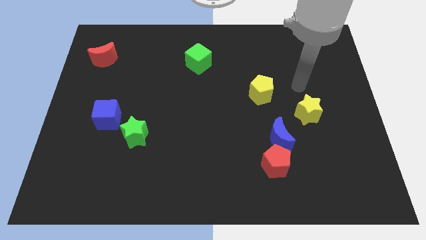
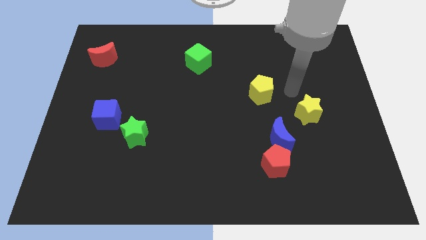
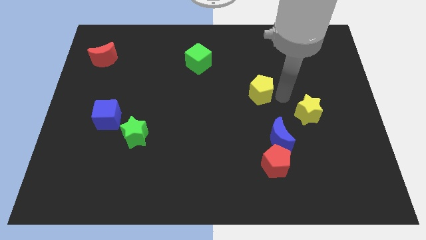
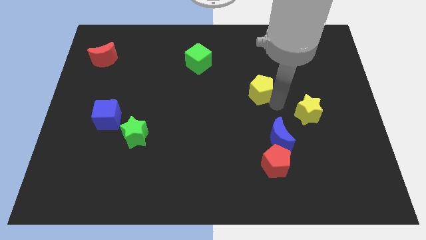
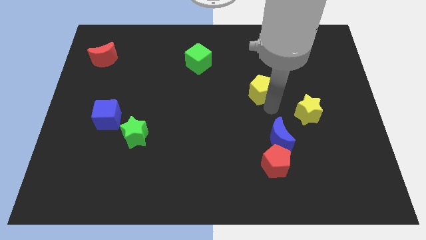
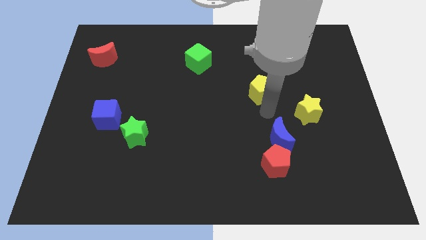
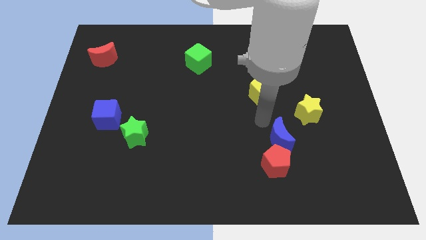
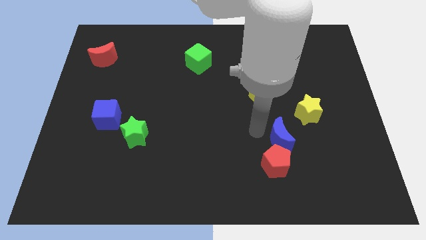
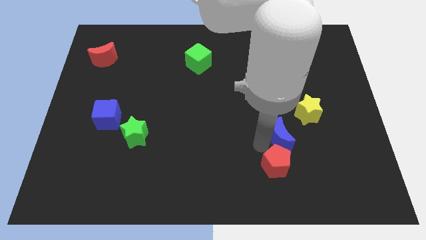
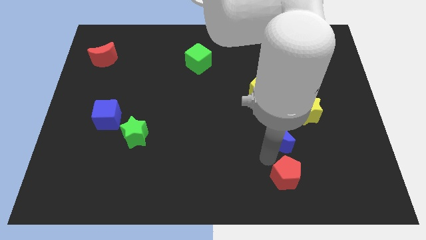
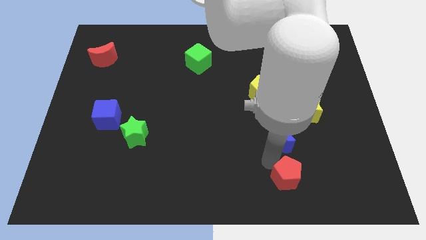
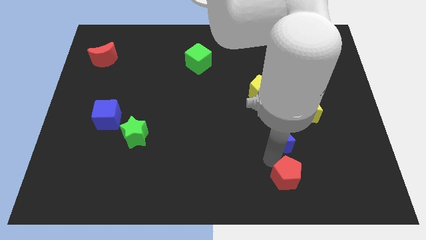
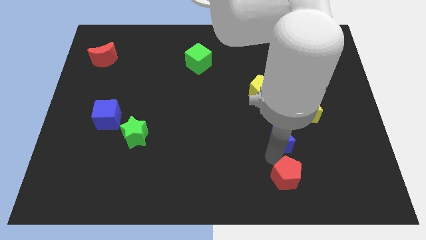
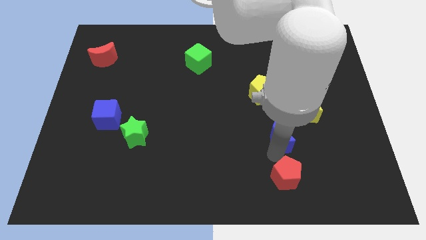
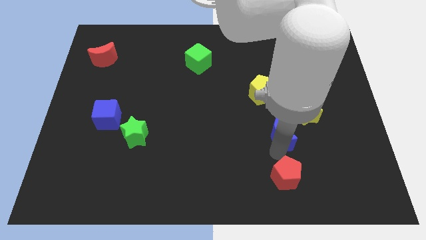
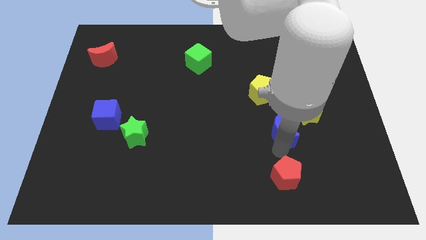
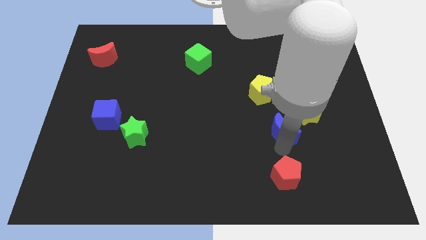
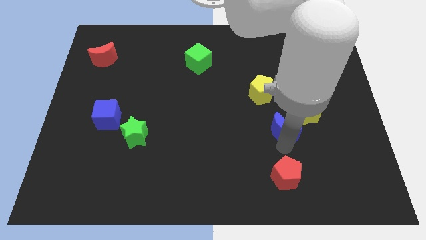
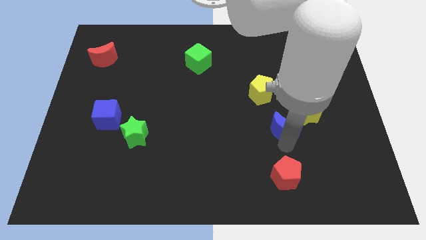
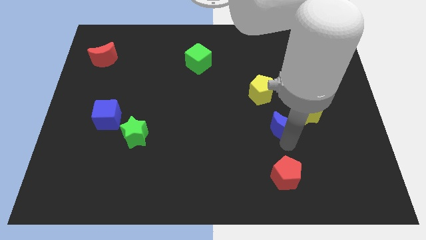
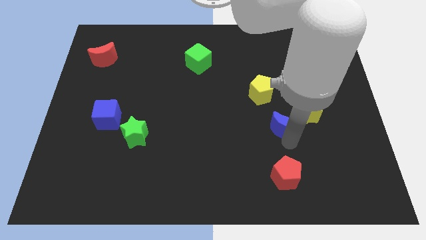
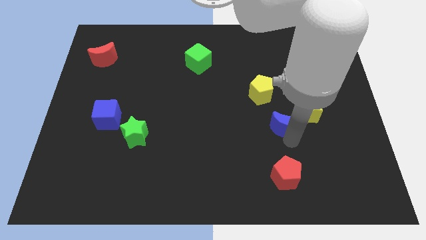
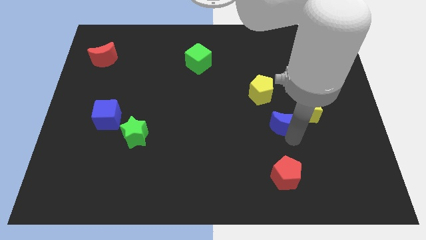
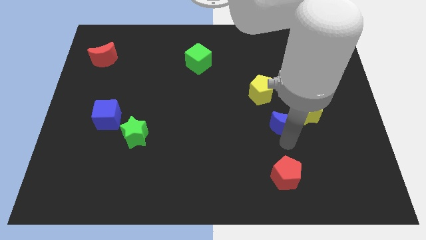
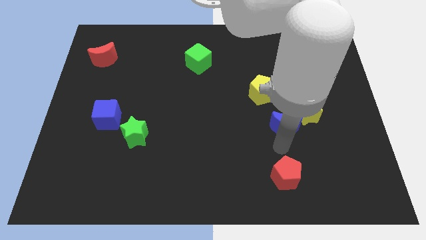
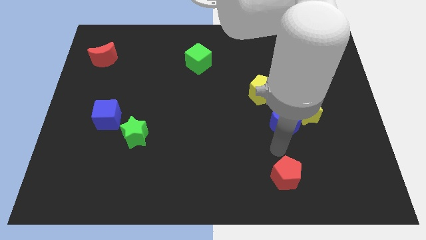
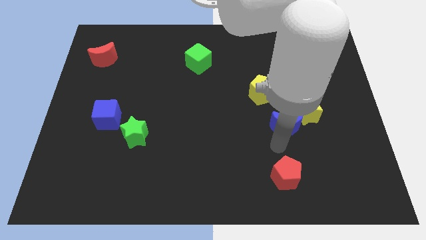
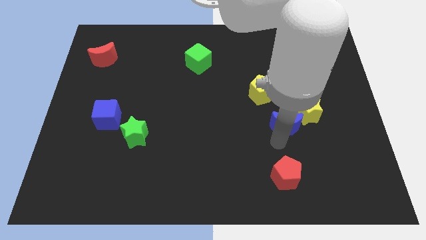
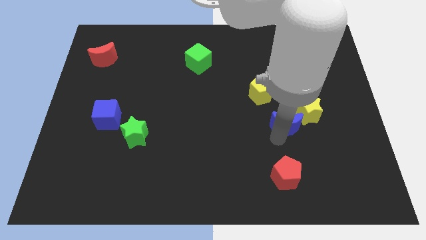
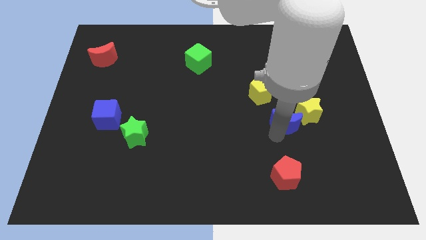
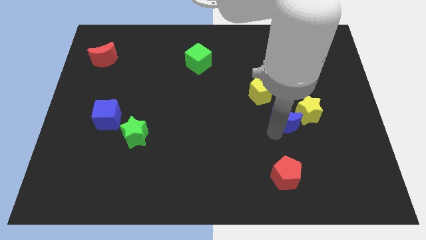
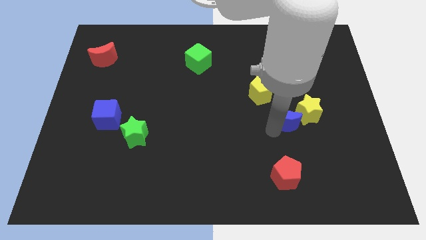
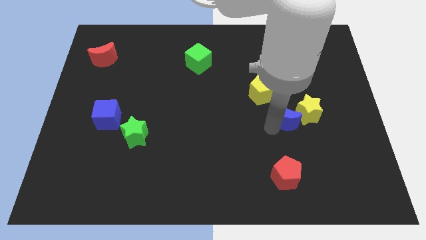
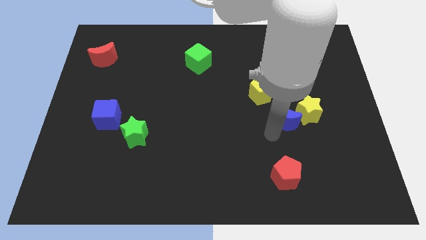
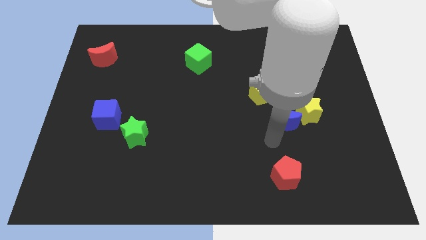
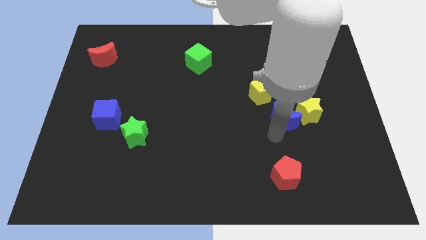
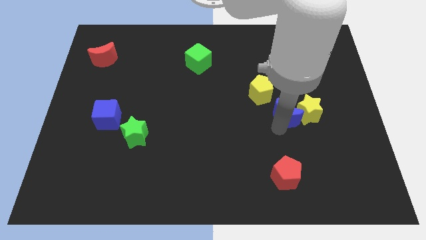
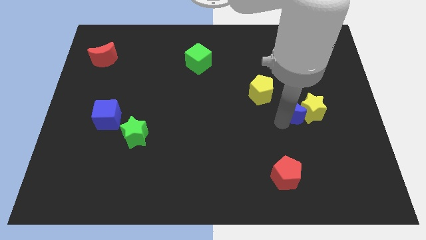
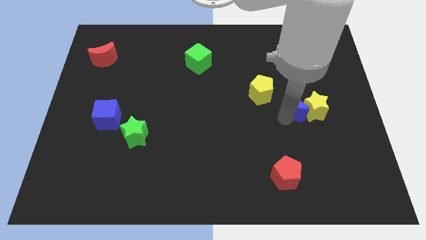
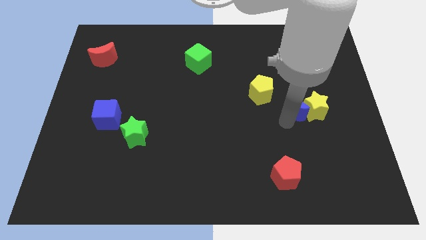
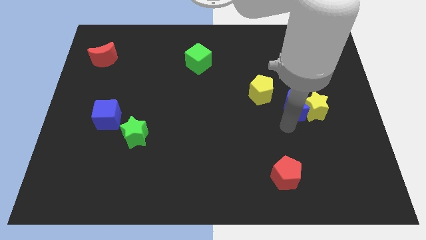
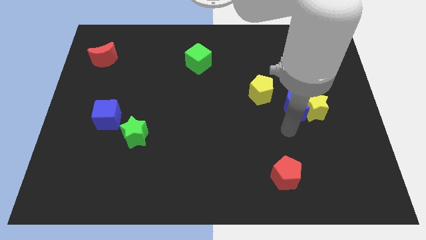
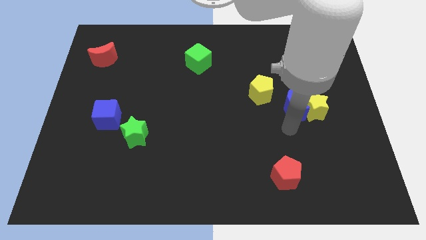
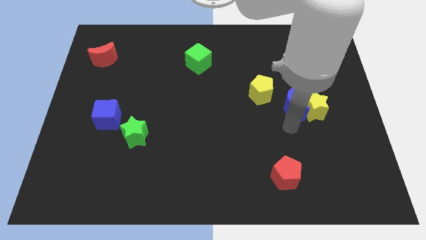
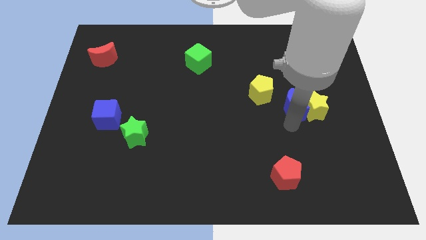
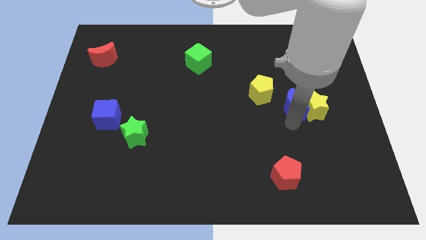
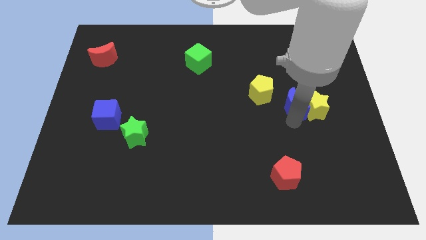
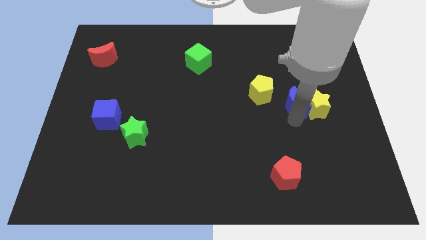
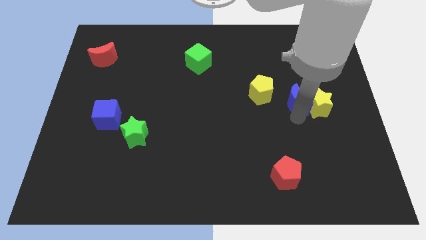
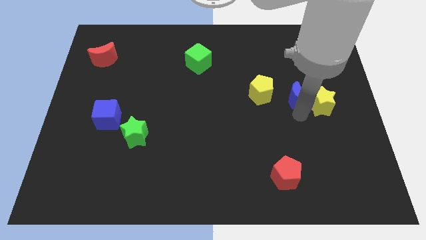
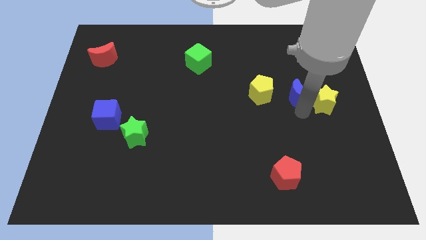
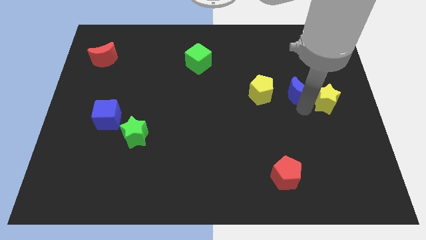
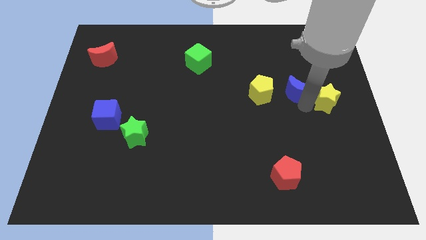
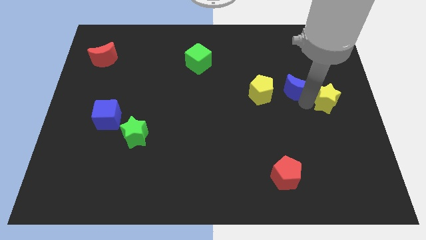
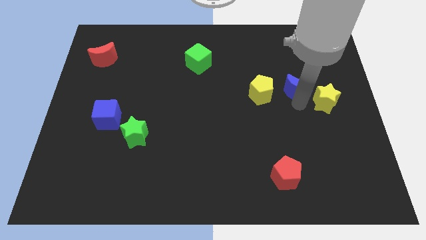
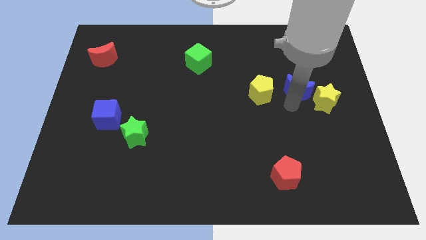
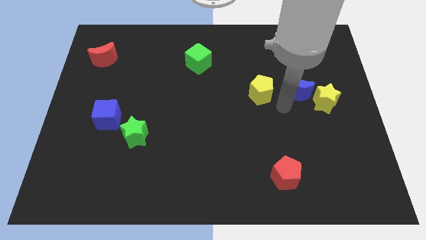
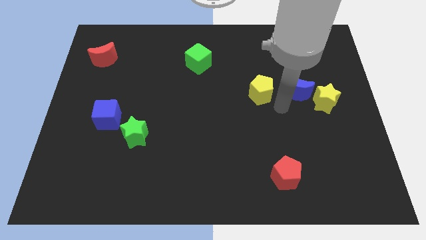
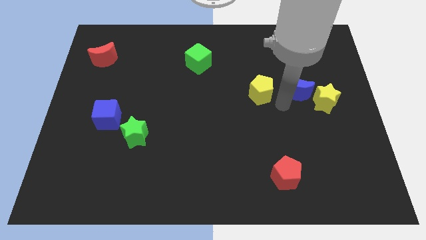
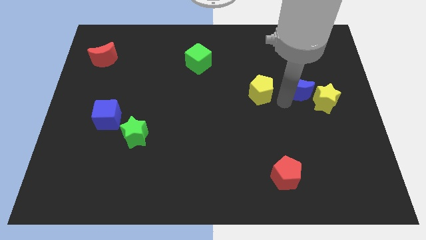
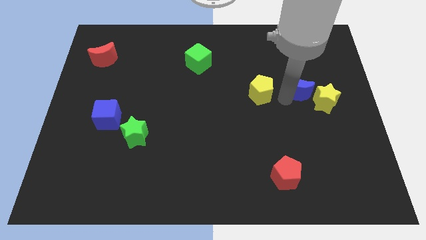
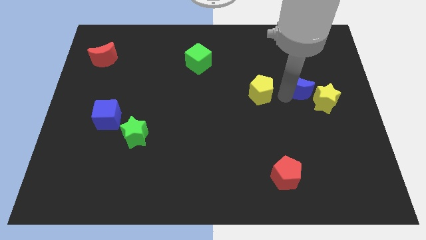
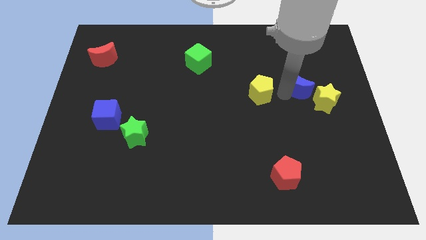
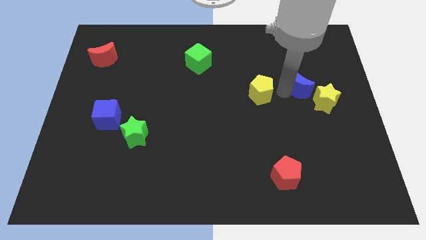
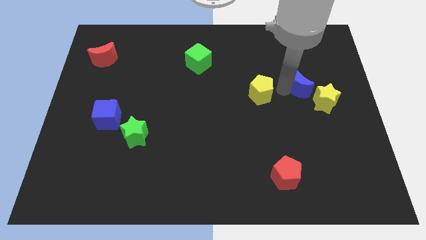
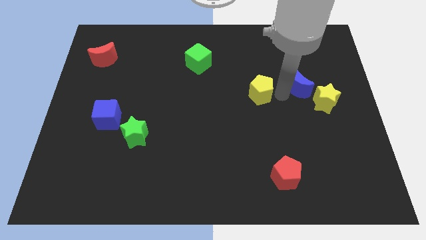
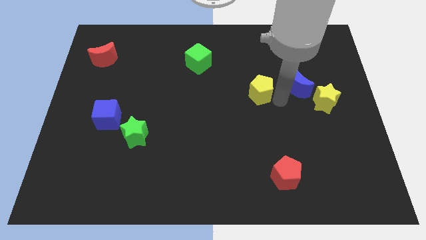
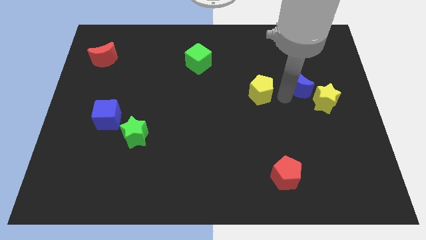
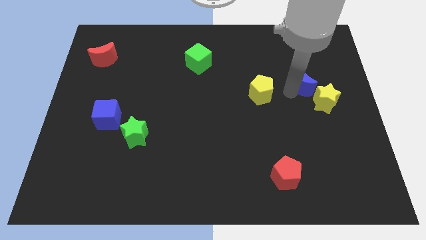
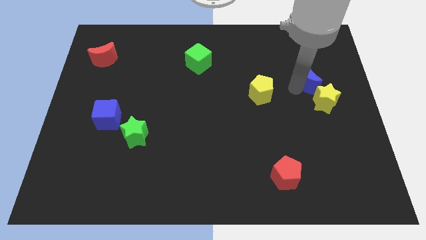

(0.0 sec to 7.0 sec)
slide the blue moon above the yellow star
